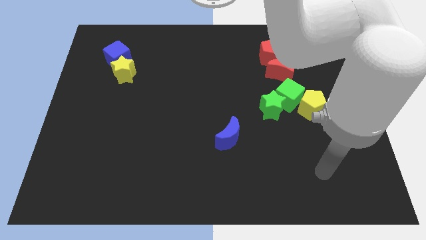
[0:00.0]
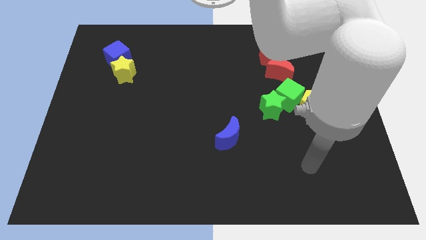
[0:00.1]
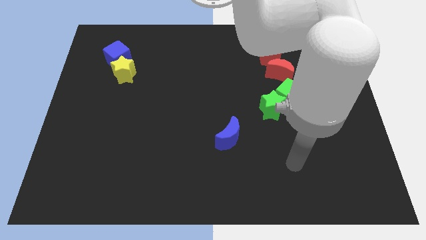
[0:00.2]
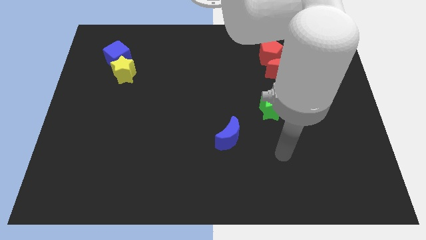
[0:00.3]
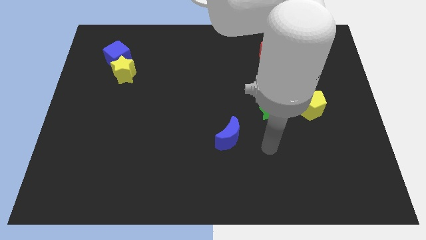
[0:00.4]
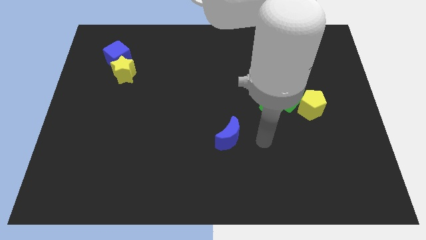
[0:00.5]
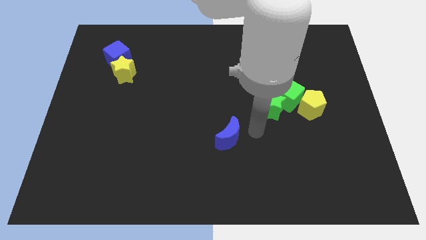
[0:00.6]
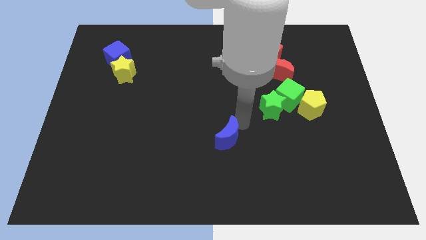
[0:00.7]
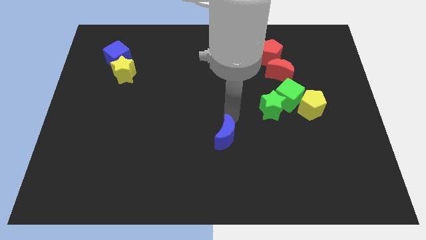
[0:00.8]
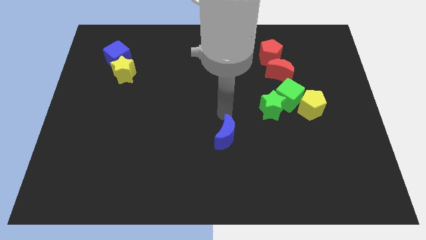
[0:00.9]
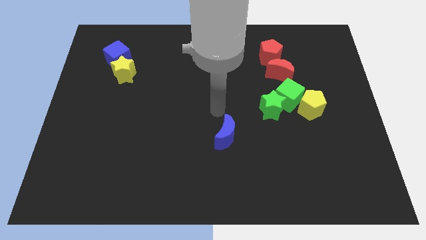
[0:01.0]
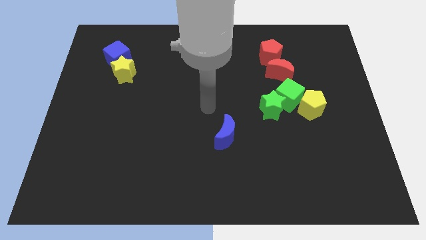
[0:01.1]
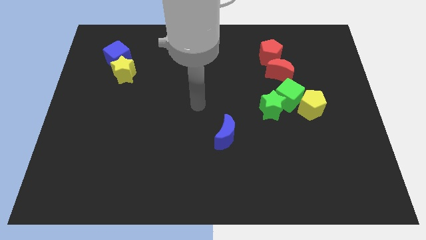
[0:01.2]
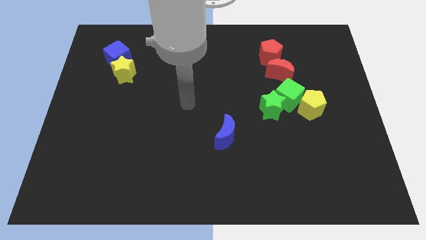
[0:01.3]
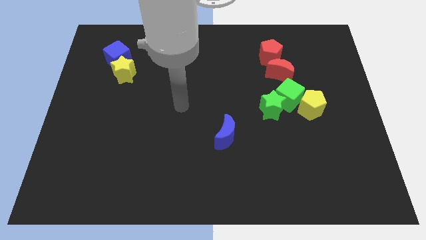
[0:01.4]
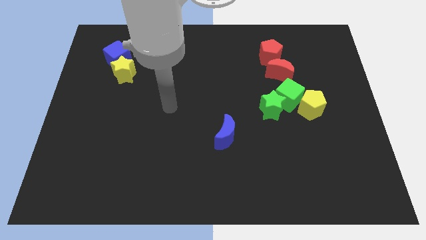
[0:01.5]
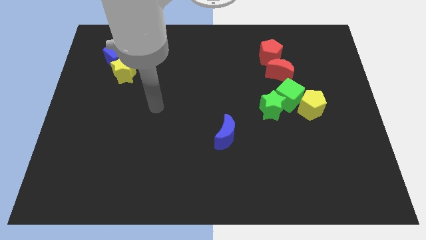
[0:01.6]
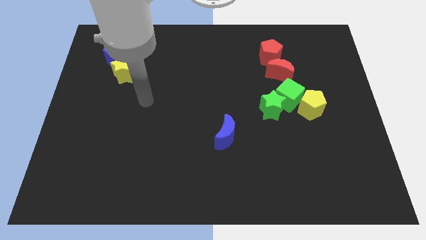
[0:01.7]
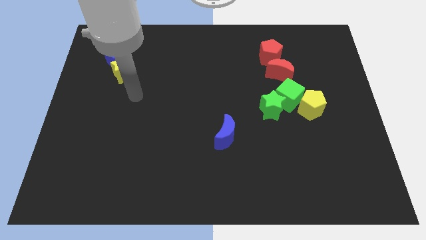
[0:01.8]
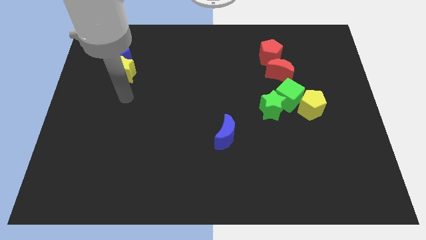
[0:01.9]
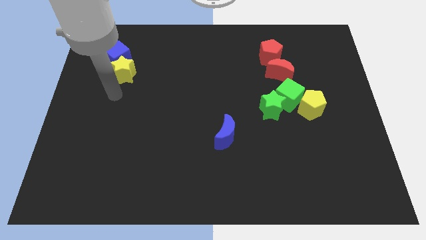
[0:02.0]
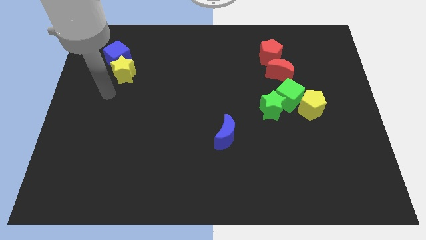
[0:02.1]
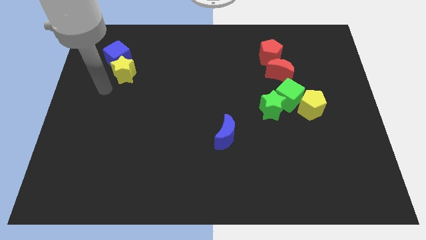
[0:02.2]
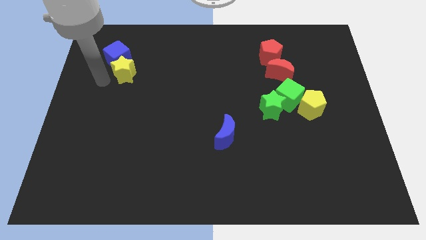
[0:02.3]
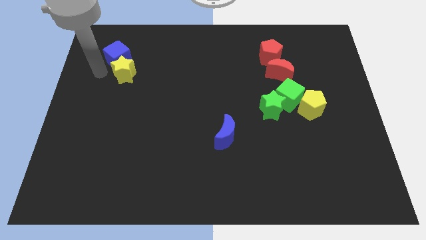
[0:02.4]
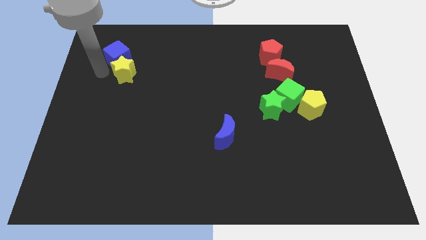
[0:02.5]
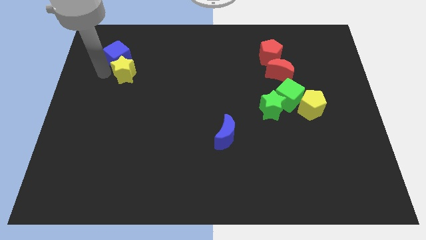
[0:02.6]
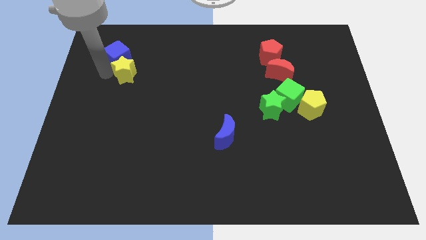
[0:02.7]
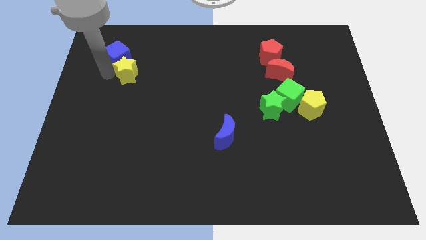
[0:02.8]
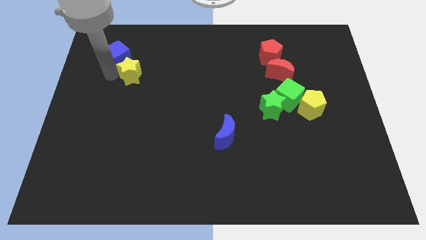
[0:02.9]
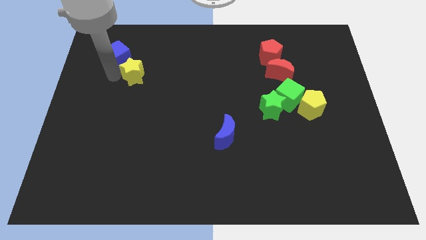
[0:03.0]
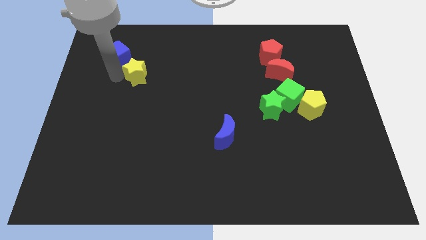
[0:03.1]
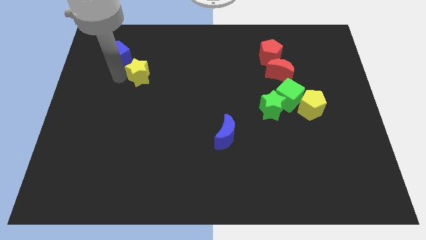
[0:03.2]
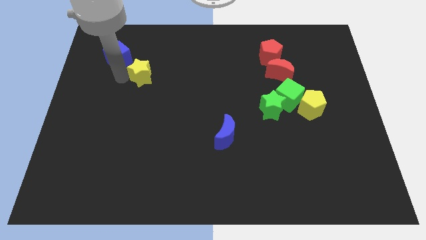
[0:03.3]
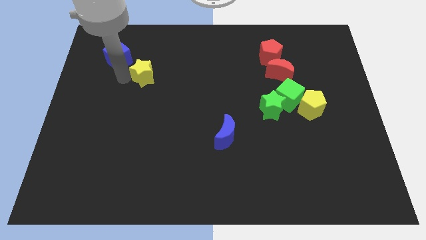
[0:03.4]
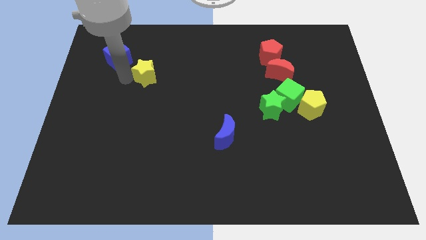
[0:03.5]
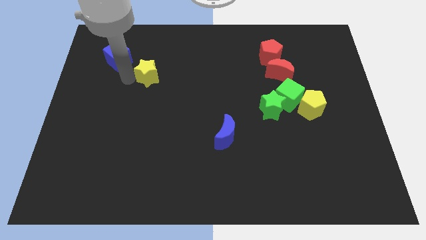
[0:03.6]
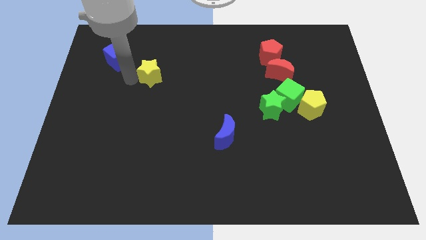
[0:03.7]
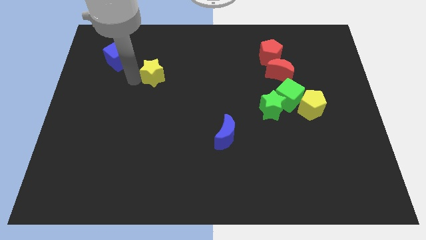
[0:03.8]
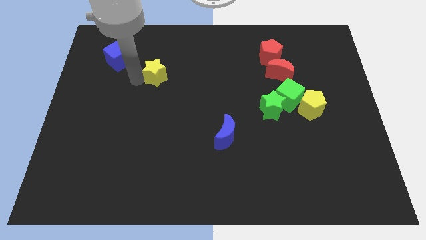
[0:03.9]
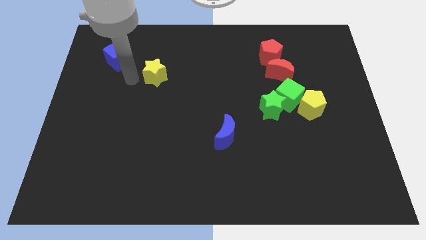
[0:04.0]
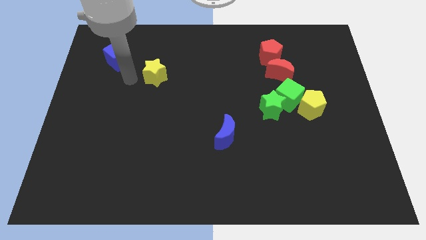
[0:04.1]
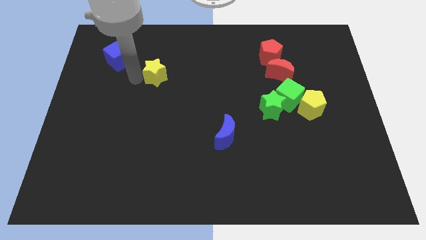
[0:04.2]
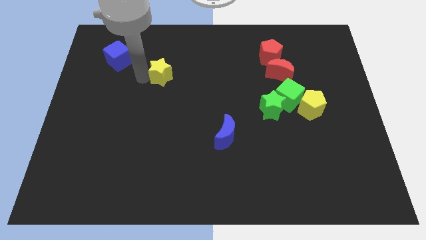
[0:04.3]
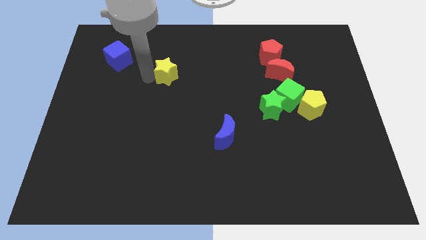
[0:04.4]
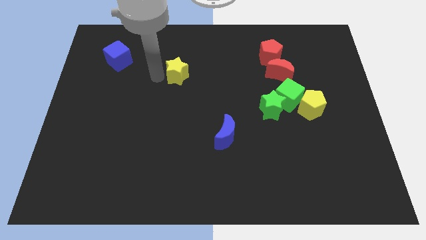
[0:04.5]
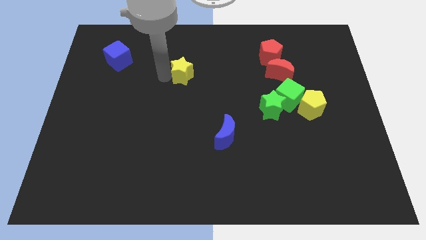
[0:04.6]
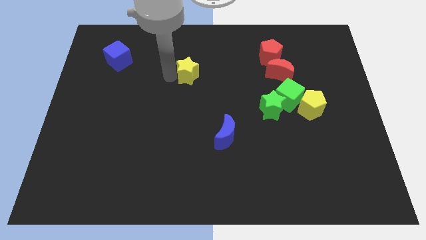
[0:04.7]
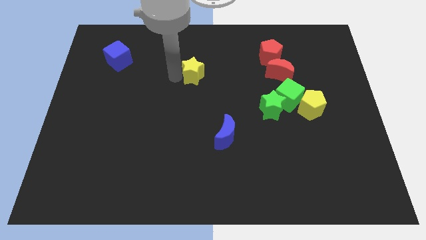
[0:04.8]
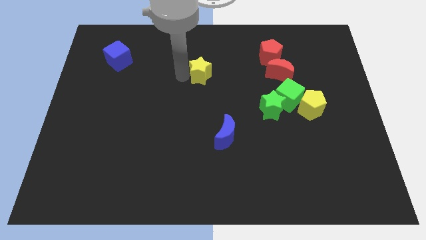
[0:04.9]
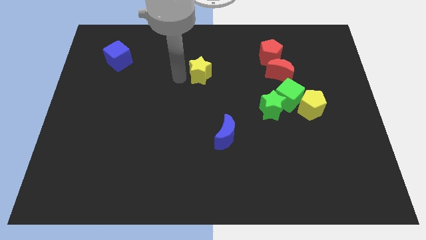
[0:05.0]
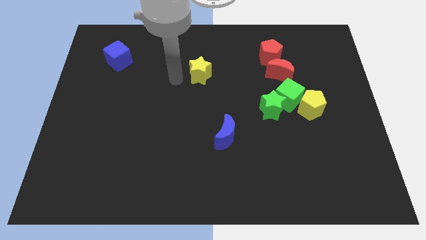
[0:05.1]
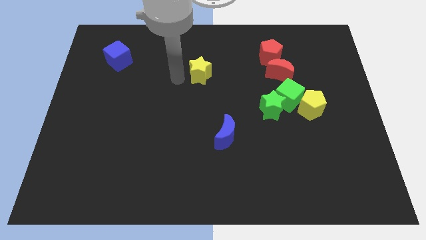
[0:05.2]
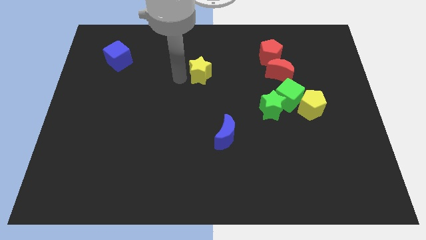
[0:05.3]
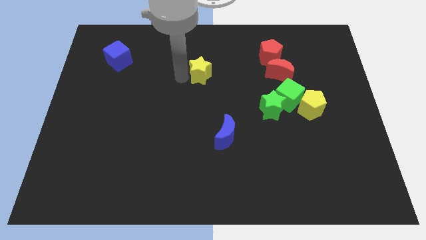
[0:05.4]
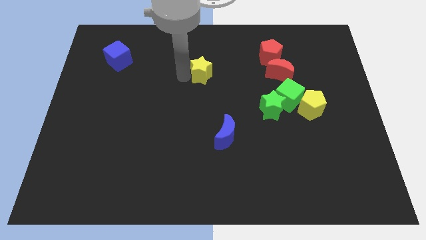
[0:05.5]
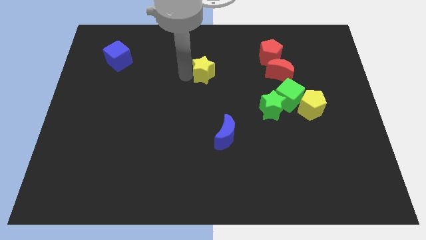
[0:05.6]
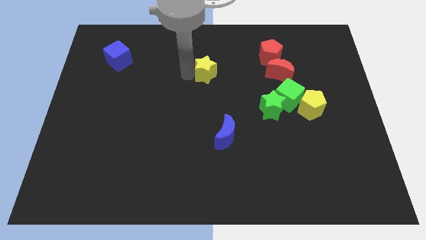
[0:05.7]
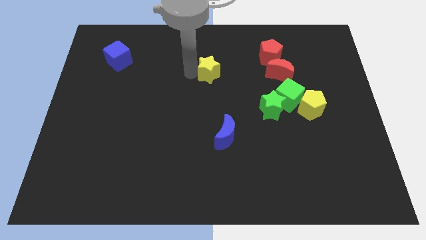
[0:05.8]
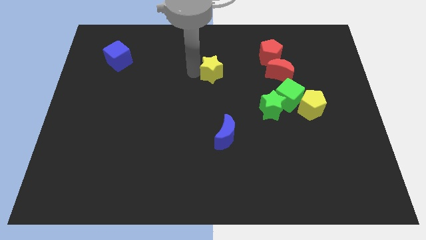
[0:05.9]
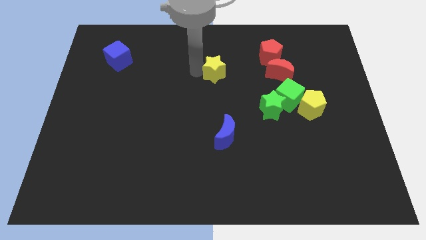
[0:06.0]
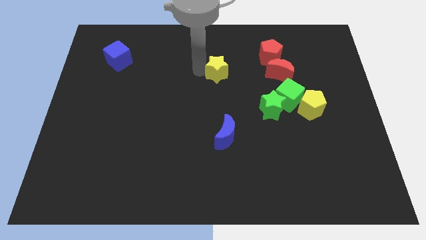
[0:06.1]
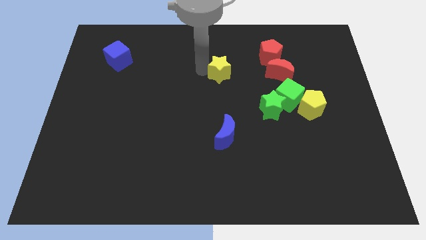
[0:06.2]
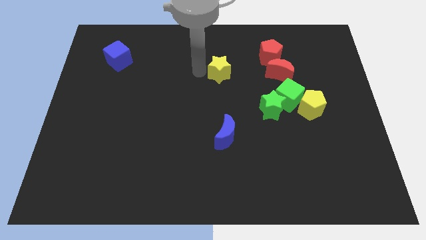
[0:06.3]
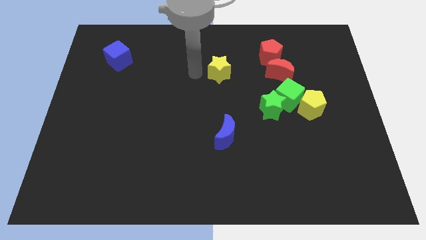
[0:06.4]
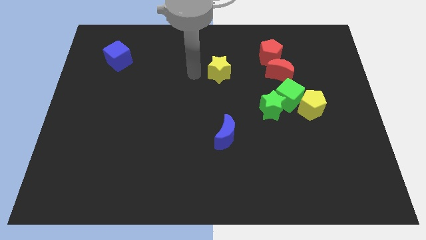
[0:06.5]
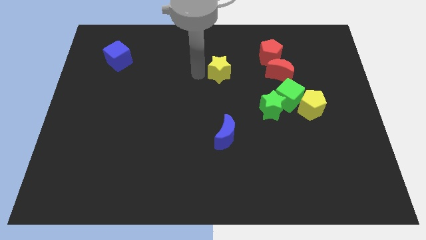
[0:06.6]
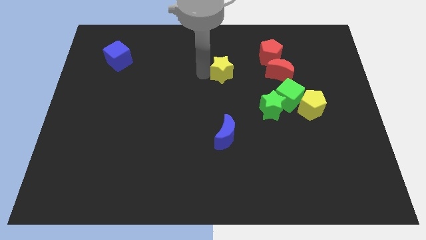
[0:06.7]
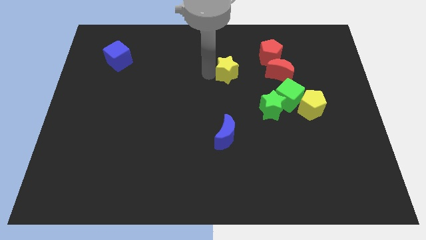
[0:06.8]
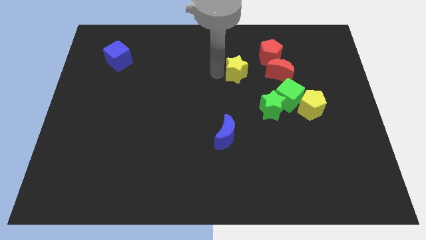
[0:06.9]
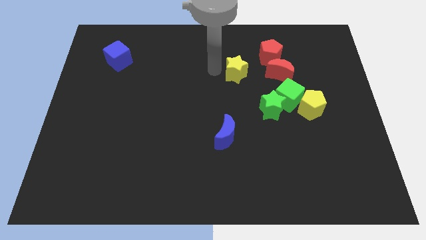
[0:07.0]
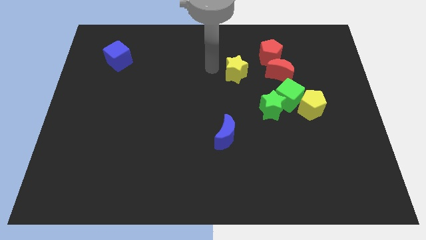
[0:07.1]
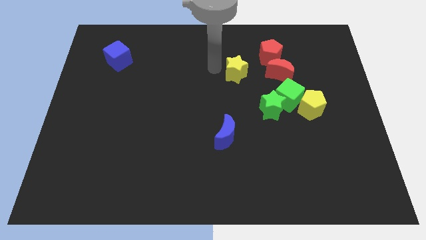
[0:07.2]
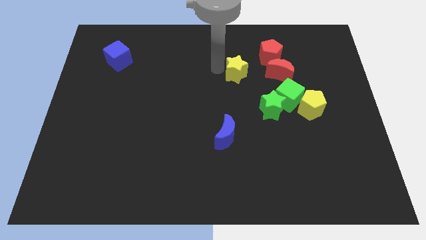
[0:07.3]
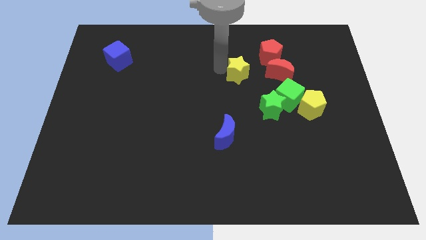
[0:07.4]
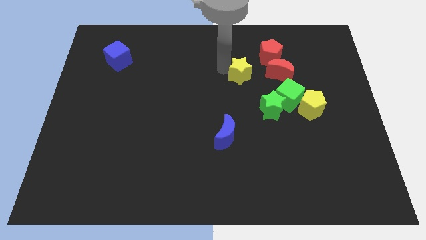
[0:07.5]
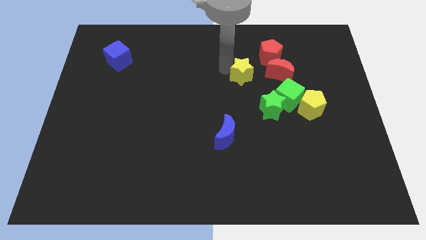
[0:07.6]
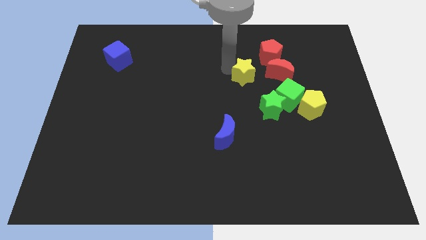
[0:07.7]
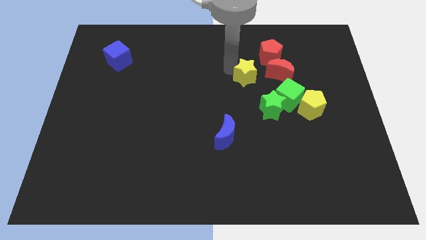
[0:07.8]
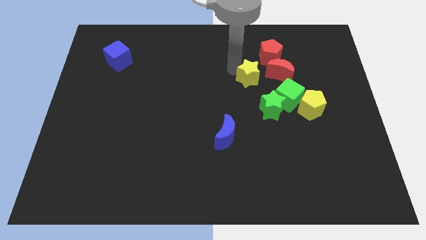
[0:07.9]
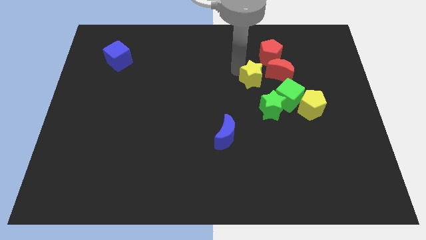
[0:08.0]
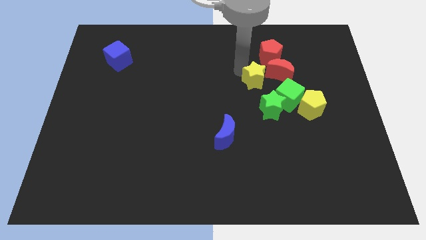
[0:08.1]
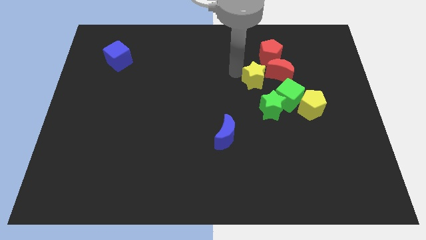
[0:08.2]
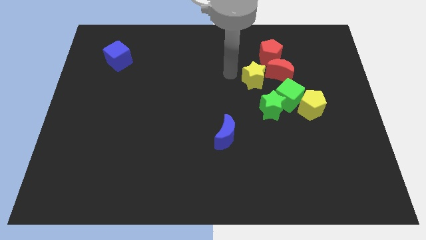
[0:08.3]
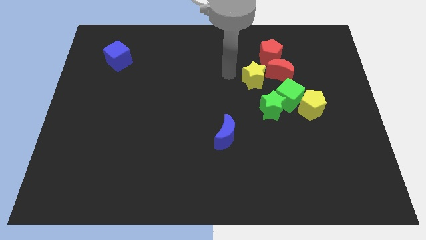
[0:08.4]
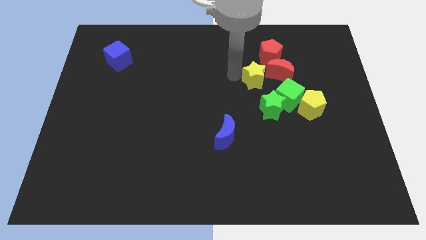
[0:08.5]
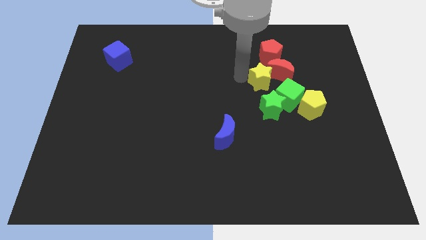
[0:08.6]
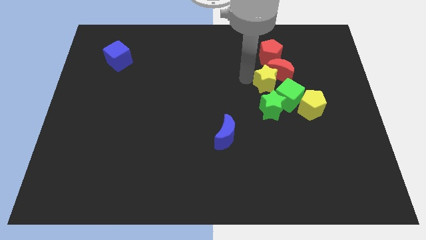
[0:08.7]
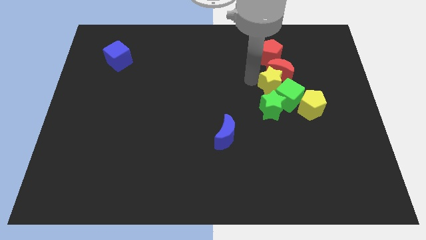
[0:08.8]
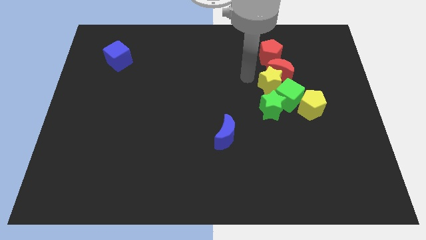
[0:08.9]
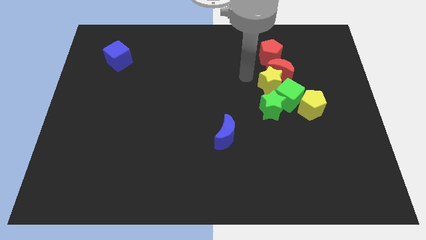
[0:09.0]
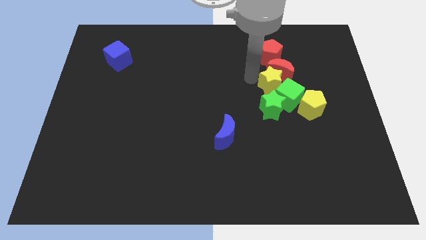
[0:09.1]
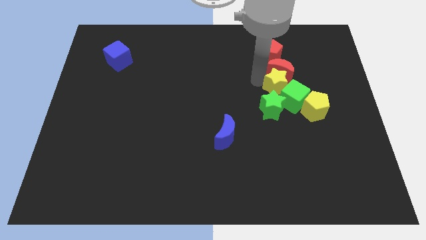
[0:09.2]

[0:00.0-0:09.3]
put the yellow star diagonally up and to the right of the green star
